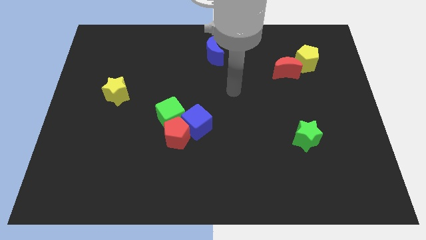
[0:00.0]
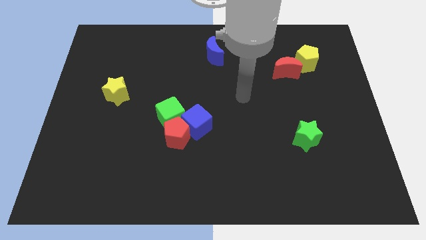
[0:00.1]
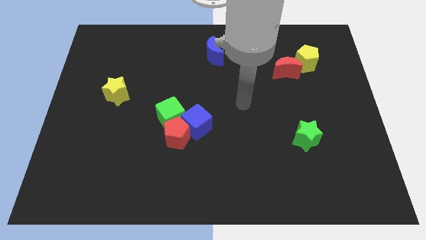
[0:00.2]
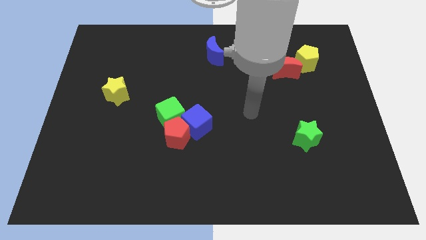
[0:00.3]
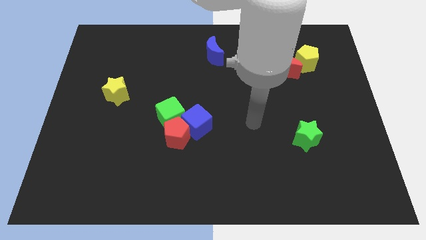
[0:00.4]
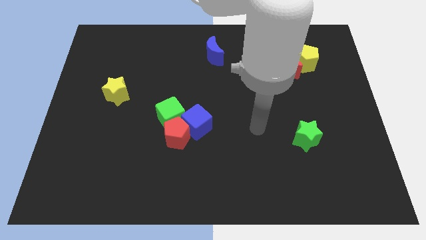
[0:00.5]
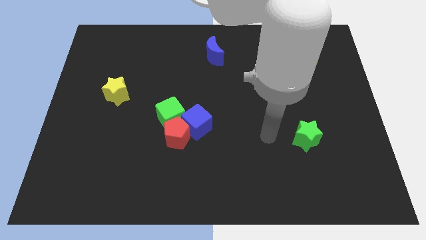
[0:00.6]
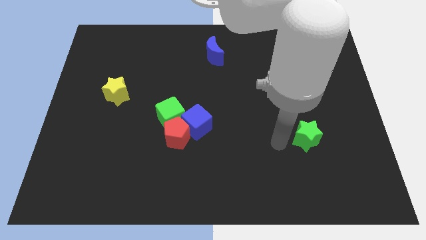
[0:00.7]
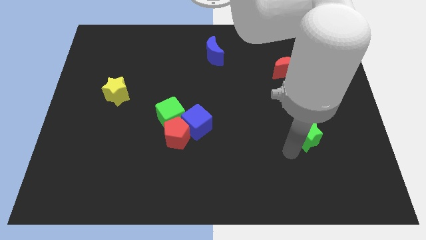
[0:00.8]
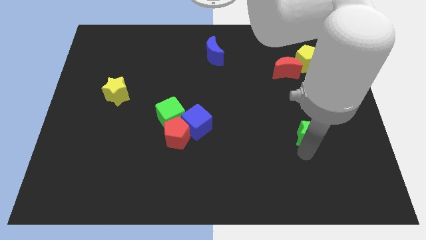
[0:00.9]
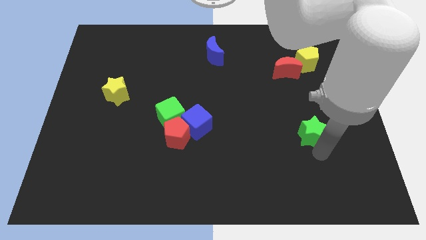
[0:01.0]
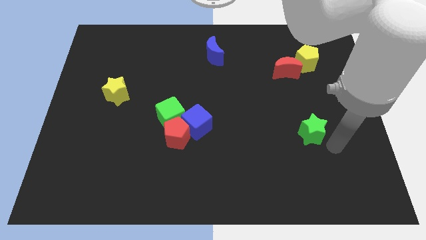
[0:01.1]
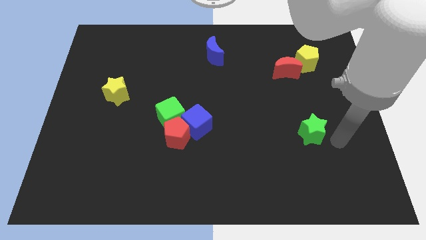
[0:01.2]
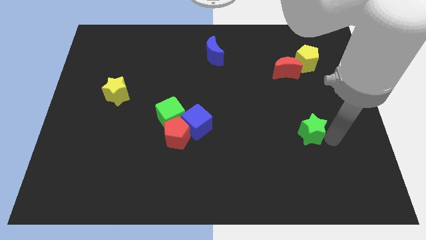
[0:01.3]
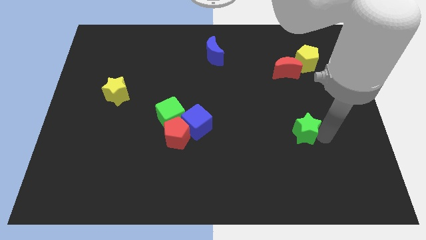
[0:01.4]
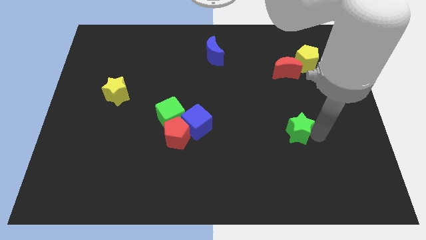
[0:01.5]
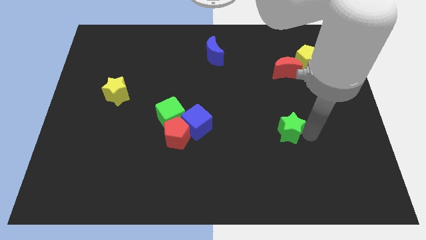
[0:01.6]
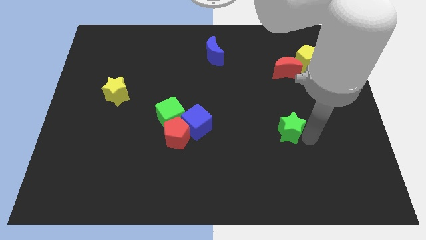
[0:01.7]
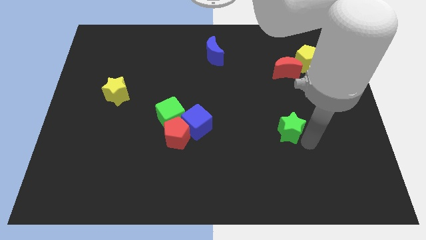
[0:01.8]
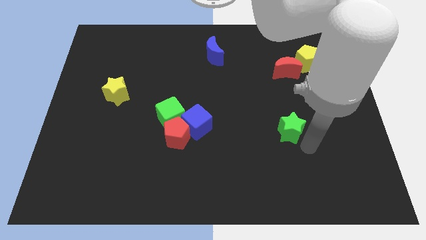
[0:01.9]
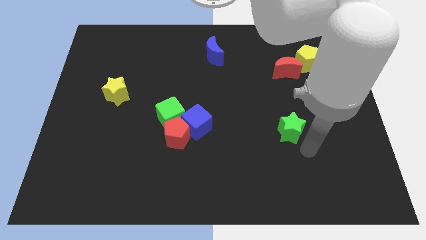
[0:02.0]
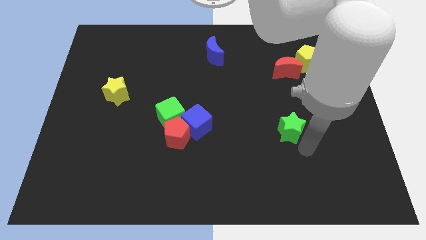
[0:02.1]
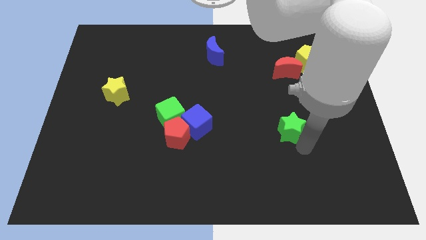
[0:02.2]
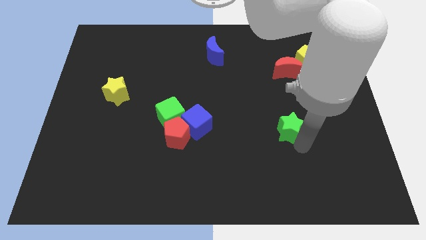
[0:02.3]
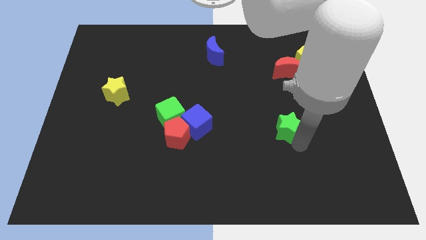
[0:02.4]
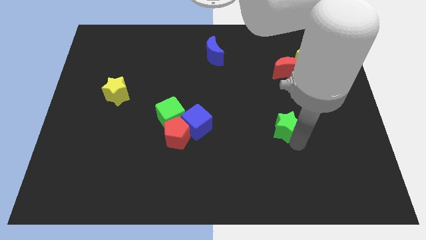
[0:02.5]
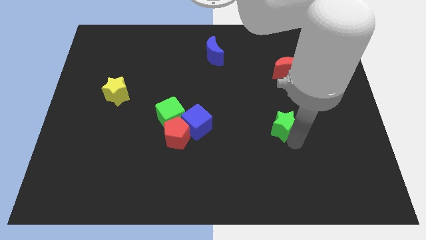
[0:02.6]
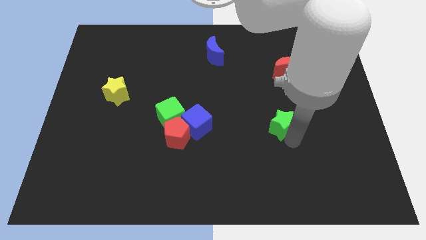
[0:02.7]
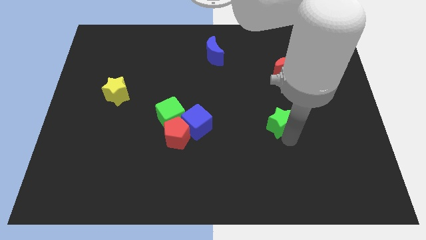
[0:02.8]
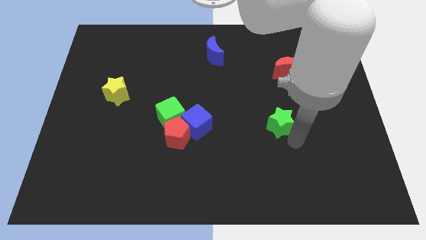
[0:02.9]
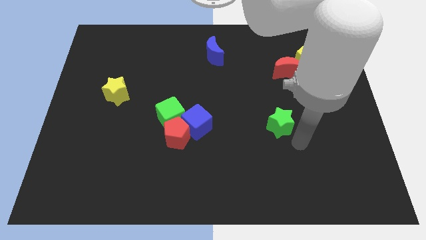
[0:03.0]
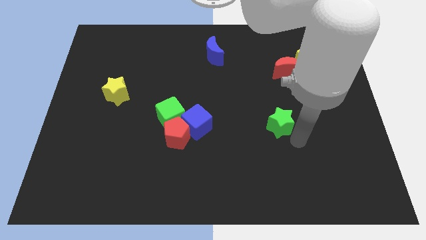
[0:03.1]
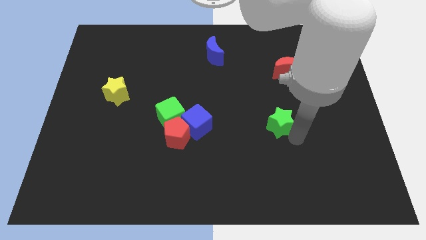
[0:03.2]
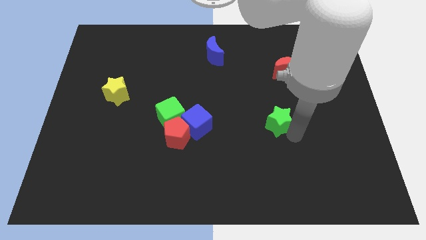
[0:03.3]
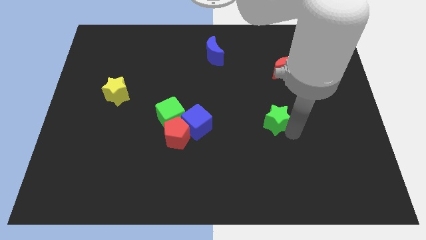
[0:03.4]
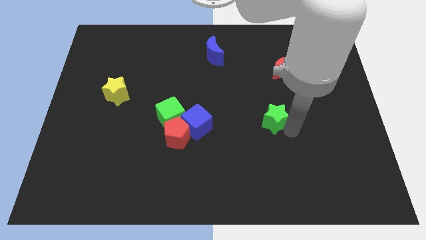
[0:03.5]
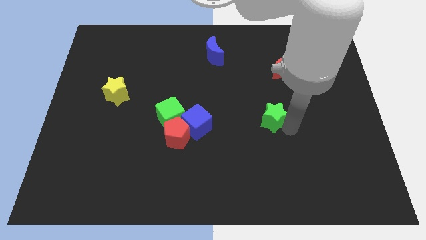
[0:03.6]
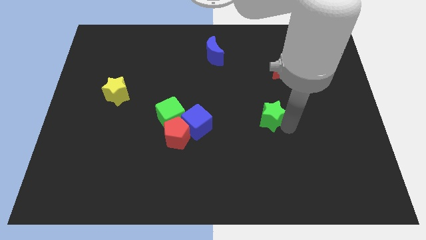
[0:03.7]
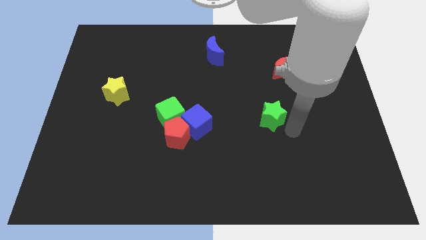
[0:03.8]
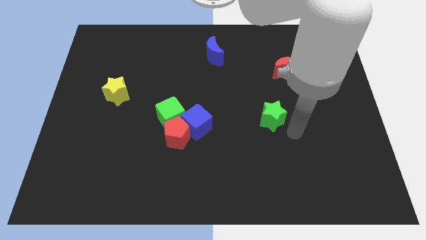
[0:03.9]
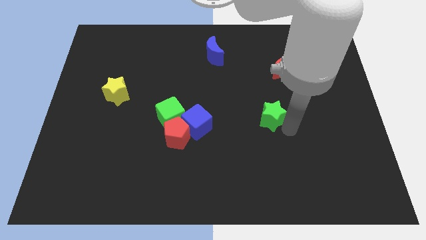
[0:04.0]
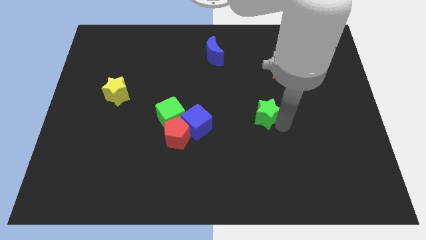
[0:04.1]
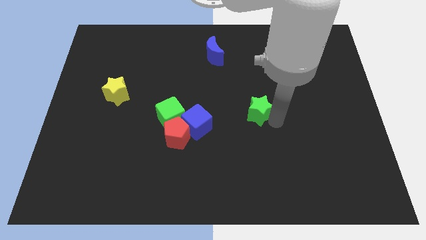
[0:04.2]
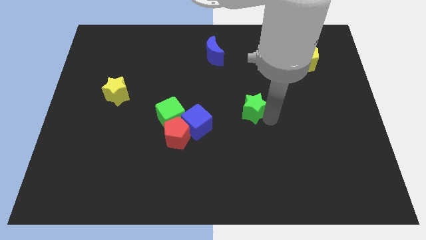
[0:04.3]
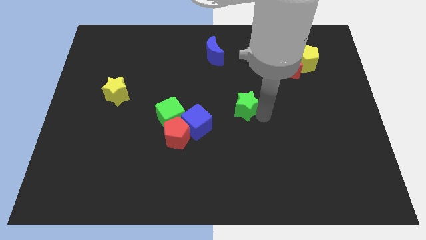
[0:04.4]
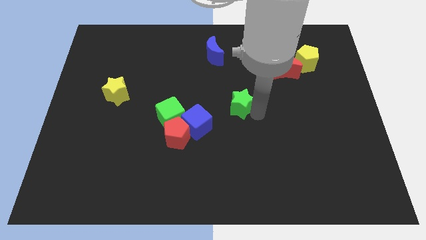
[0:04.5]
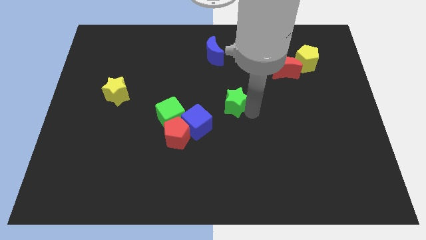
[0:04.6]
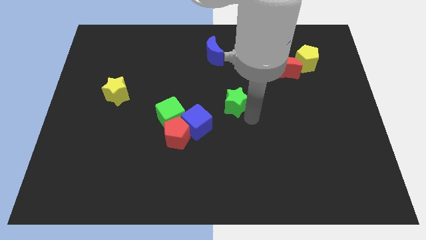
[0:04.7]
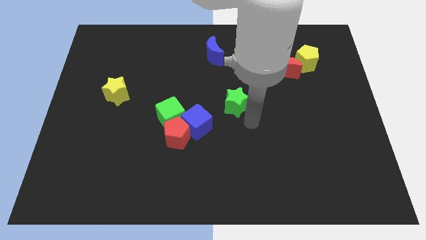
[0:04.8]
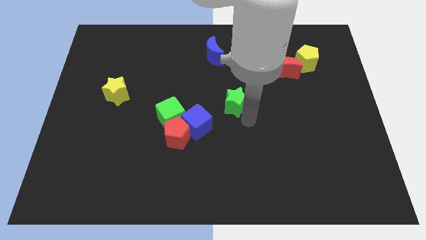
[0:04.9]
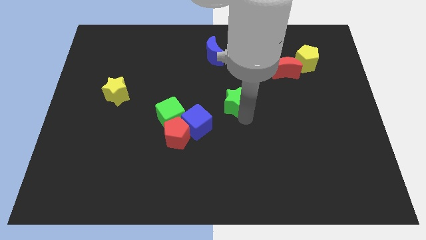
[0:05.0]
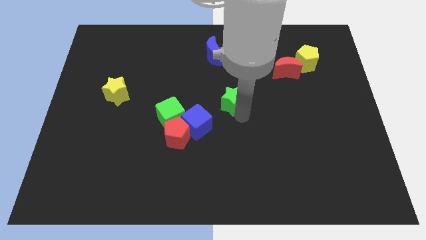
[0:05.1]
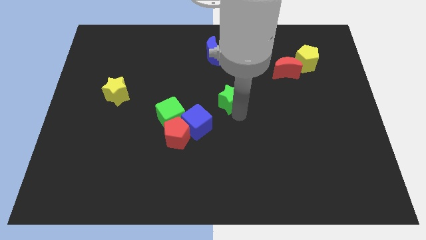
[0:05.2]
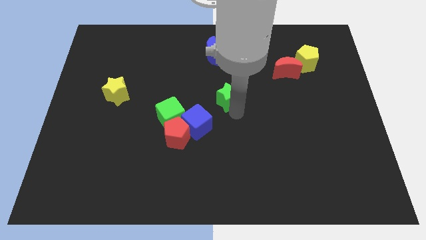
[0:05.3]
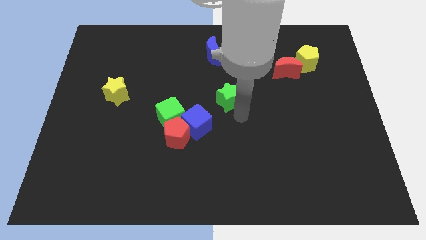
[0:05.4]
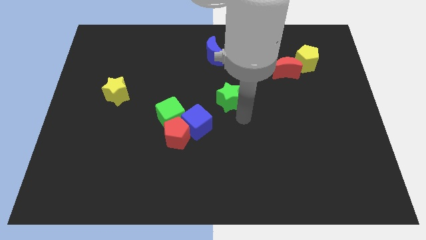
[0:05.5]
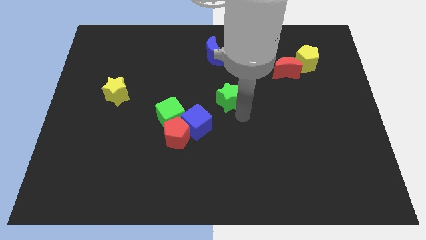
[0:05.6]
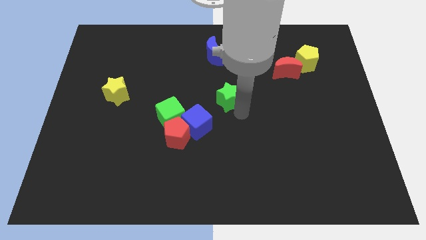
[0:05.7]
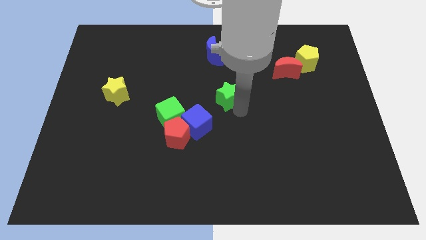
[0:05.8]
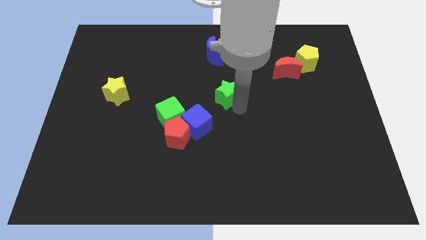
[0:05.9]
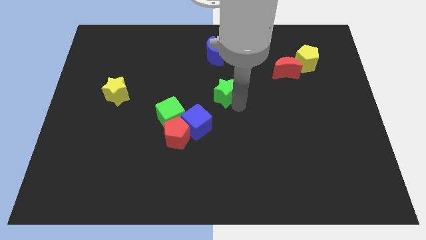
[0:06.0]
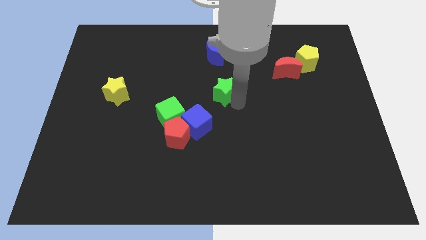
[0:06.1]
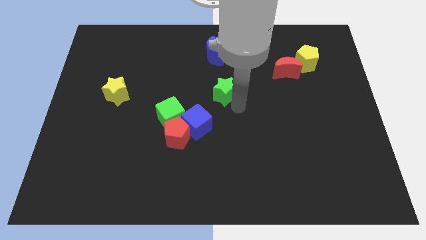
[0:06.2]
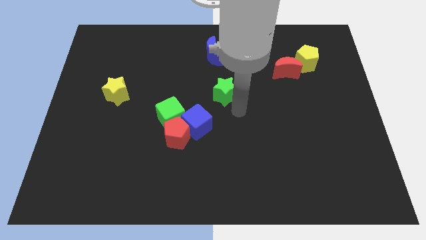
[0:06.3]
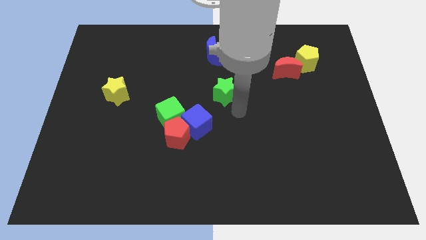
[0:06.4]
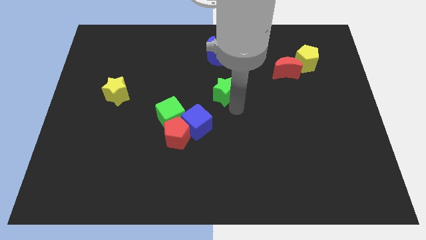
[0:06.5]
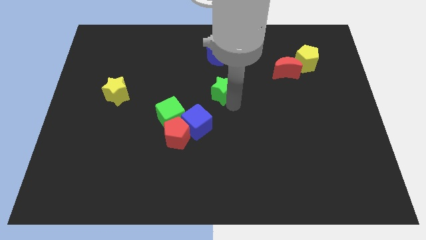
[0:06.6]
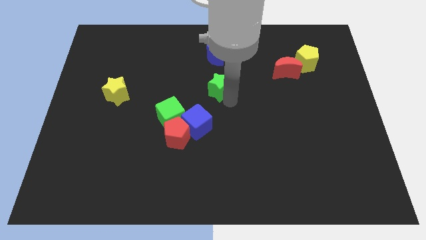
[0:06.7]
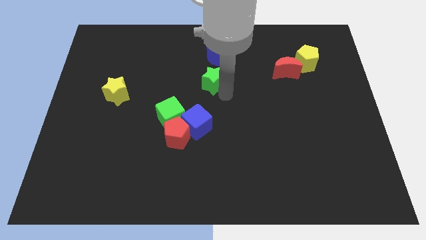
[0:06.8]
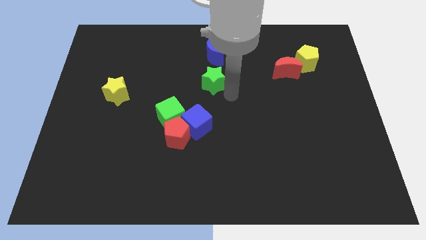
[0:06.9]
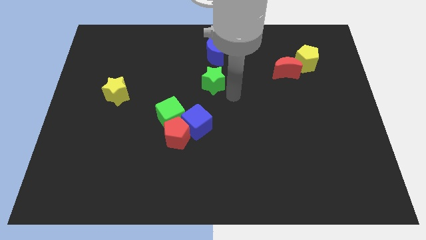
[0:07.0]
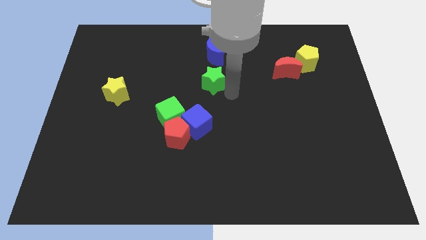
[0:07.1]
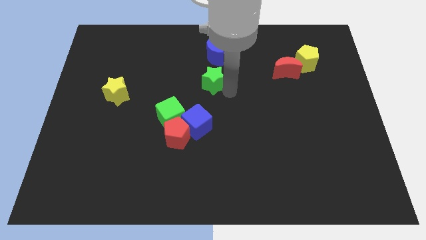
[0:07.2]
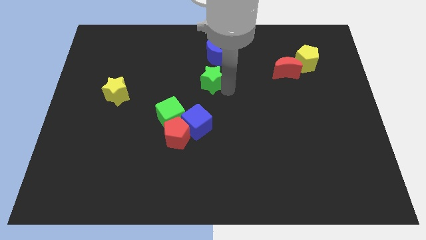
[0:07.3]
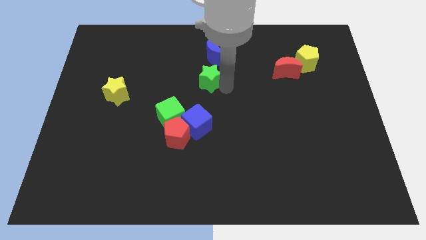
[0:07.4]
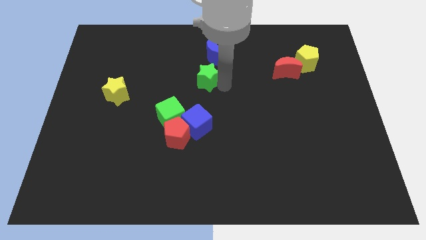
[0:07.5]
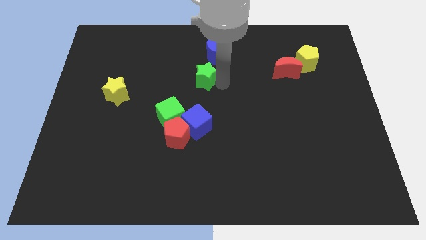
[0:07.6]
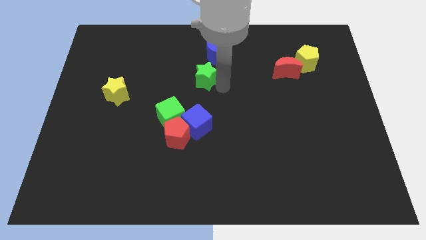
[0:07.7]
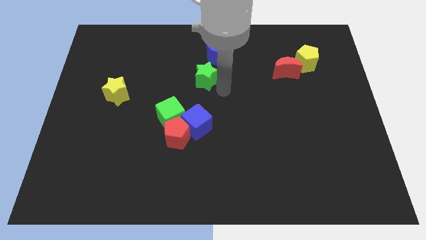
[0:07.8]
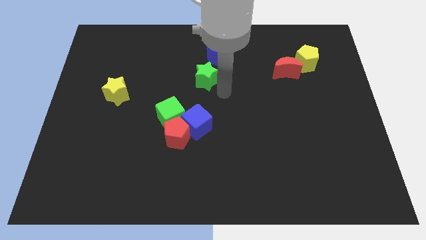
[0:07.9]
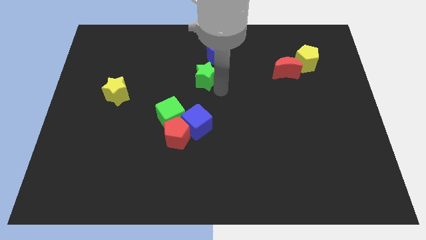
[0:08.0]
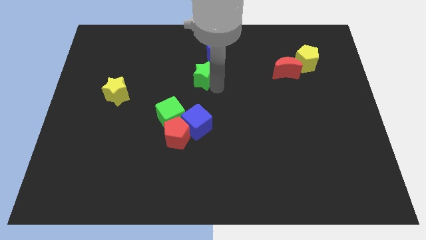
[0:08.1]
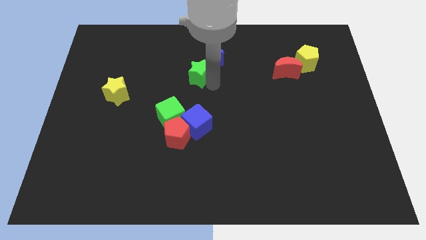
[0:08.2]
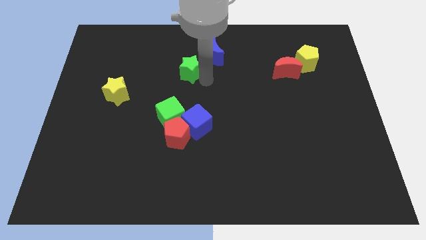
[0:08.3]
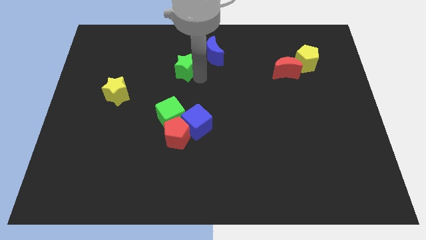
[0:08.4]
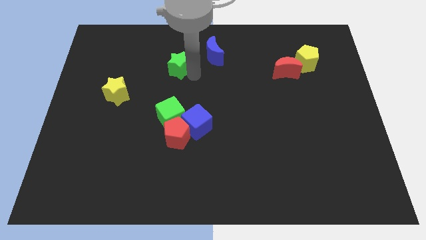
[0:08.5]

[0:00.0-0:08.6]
move the green star just left of the blue moon
